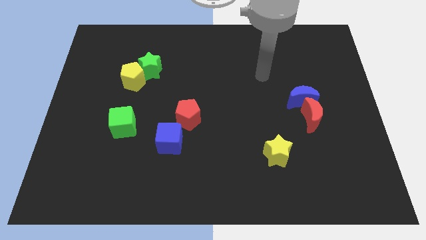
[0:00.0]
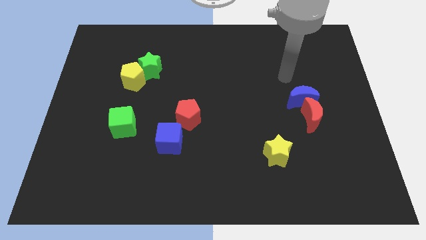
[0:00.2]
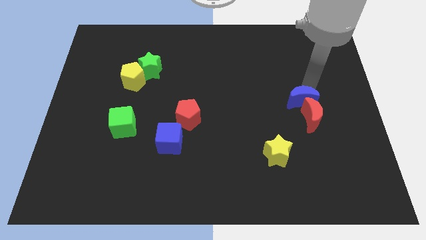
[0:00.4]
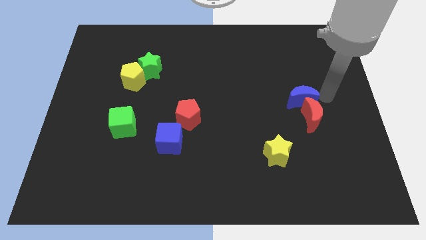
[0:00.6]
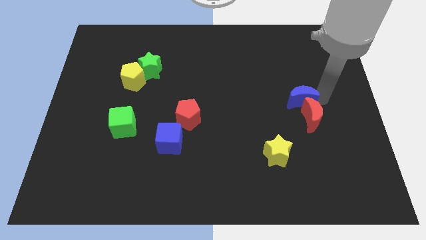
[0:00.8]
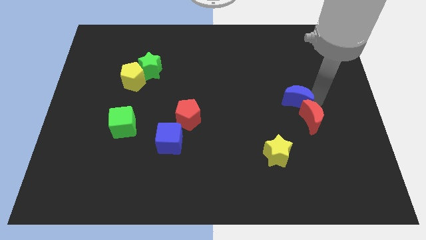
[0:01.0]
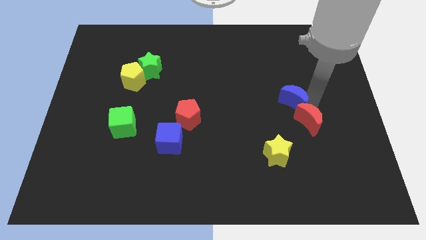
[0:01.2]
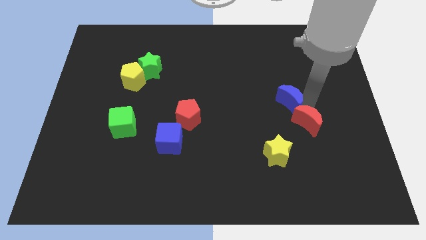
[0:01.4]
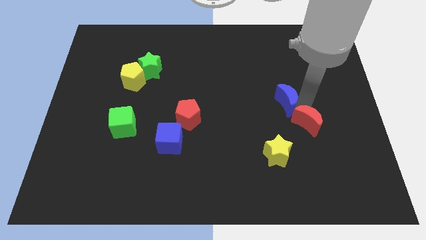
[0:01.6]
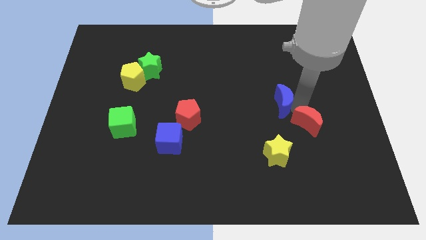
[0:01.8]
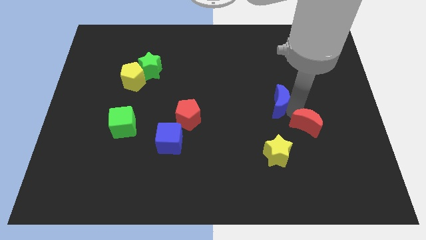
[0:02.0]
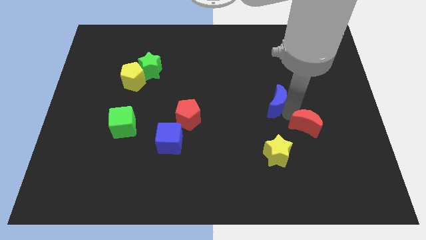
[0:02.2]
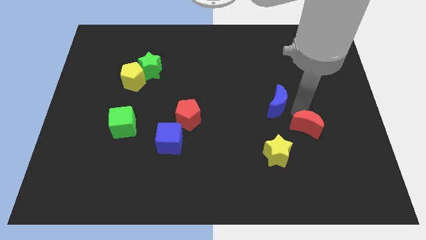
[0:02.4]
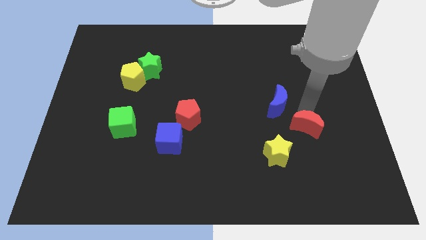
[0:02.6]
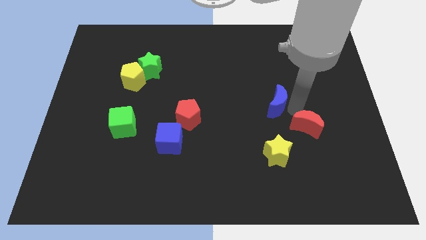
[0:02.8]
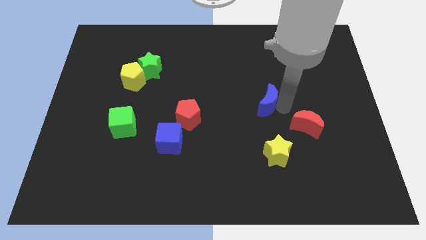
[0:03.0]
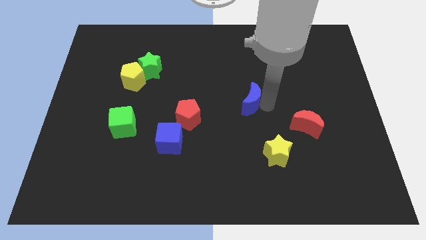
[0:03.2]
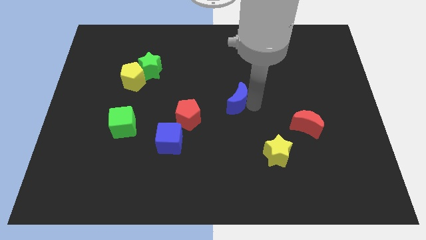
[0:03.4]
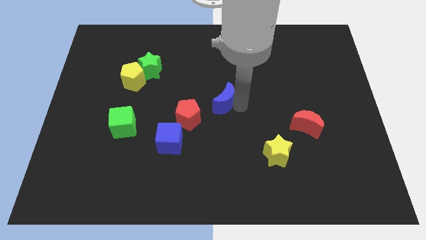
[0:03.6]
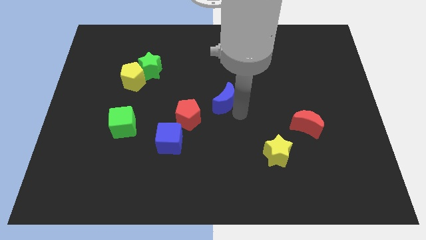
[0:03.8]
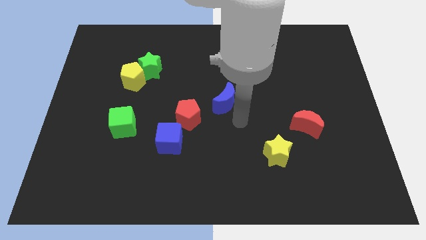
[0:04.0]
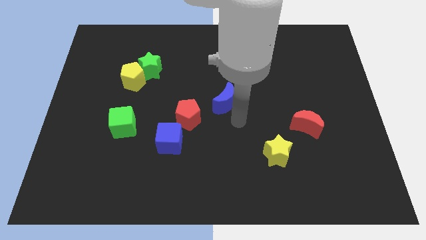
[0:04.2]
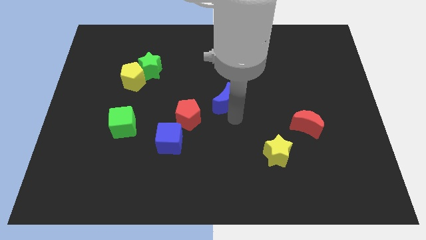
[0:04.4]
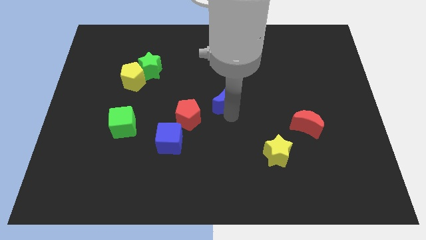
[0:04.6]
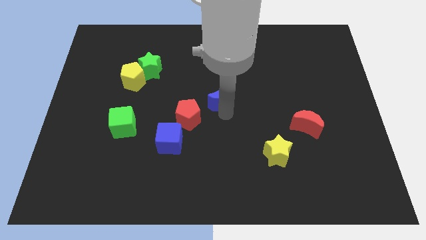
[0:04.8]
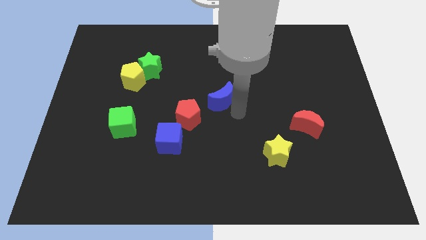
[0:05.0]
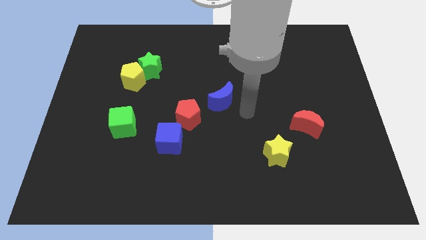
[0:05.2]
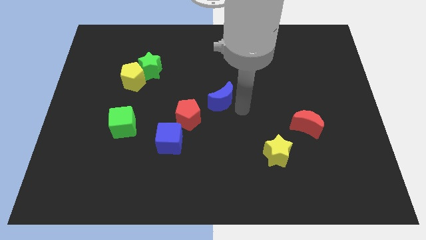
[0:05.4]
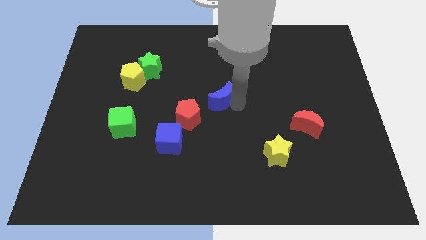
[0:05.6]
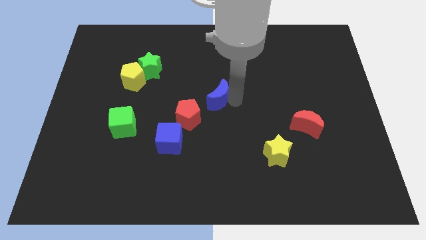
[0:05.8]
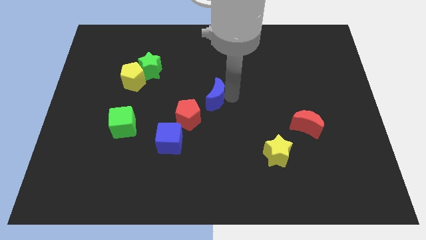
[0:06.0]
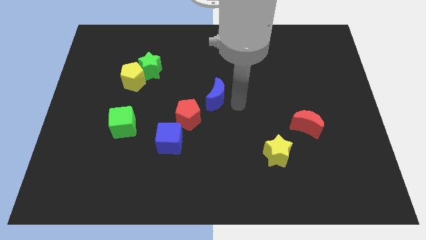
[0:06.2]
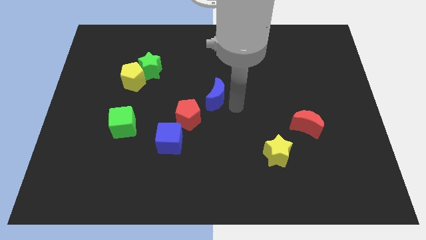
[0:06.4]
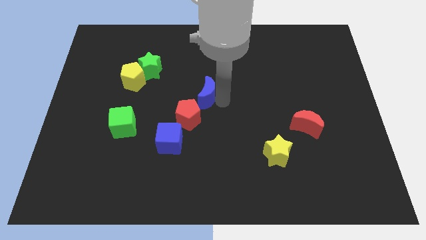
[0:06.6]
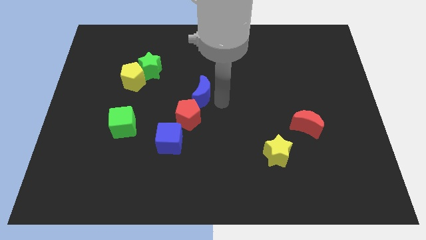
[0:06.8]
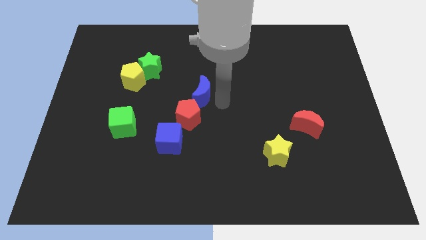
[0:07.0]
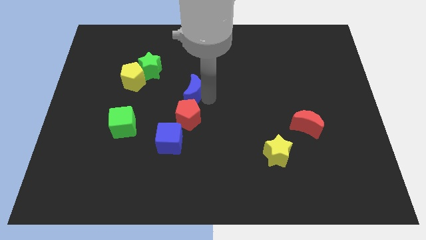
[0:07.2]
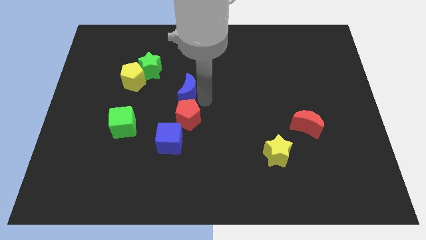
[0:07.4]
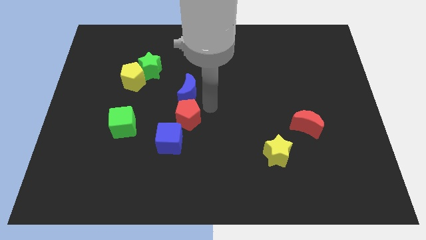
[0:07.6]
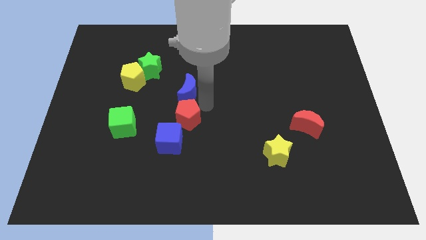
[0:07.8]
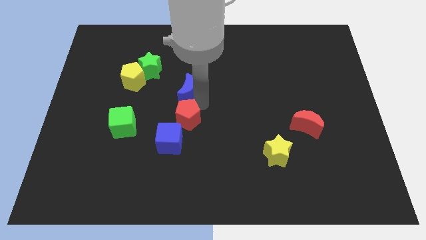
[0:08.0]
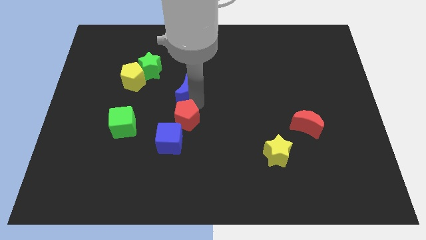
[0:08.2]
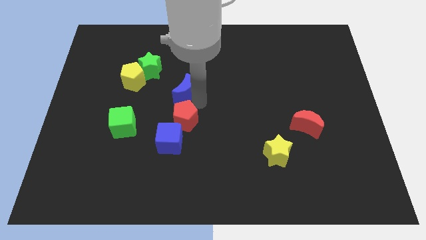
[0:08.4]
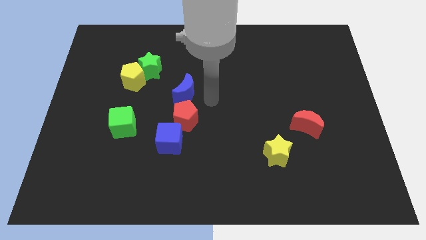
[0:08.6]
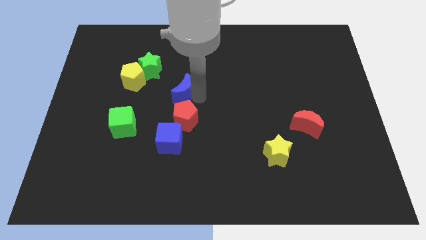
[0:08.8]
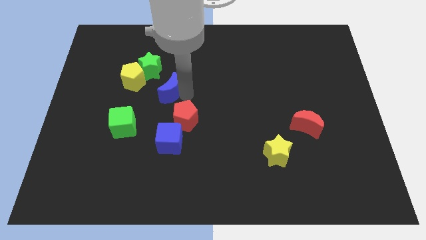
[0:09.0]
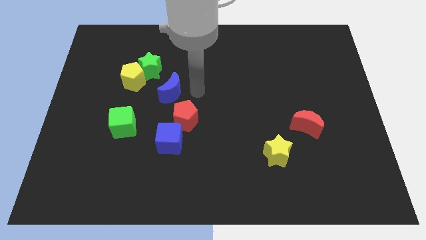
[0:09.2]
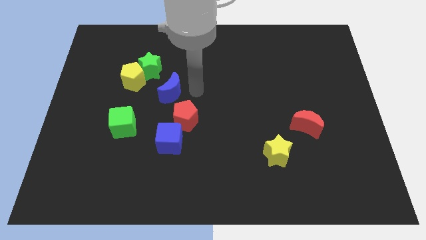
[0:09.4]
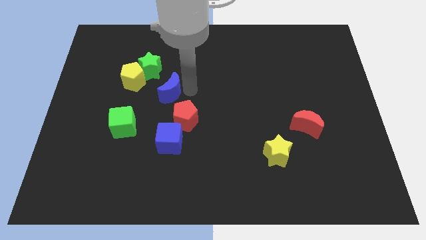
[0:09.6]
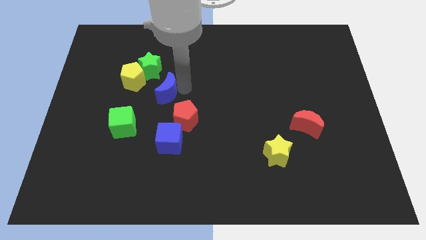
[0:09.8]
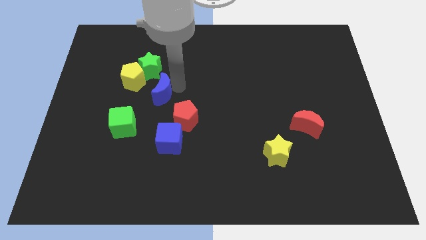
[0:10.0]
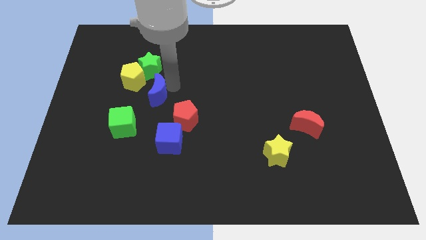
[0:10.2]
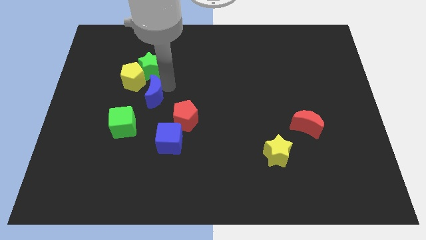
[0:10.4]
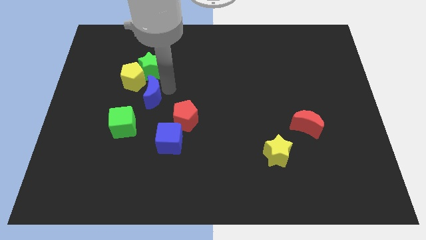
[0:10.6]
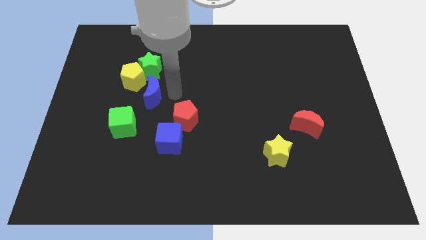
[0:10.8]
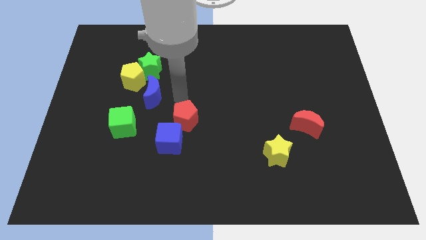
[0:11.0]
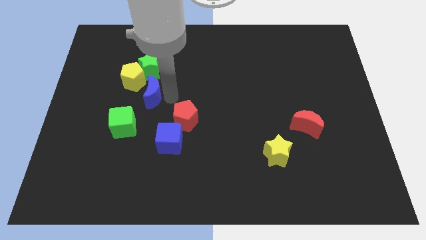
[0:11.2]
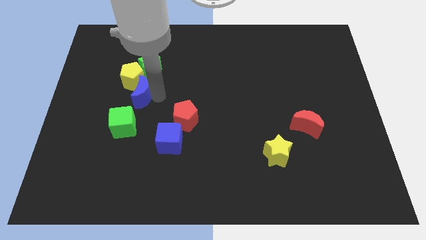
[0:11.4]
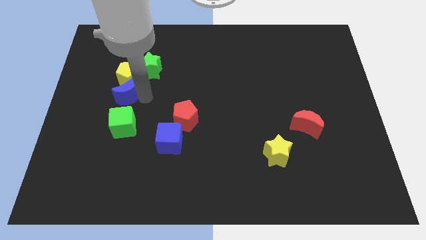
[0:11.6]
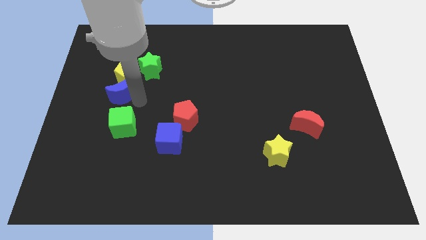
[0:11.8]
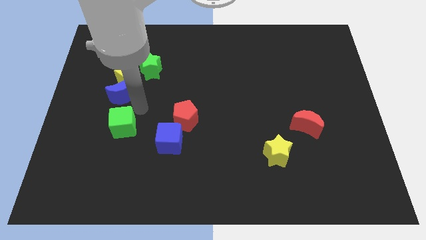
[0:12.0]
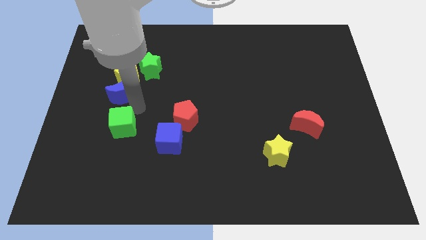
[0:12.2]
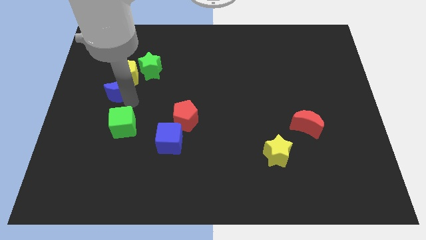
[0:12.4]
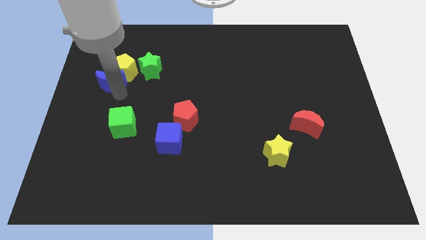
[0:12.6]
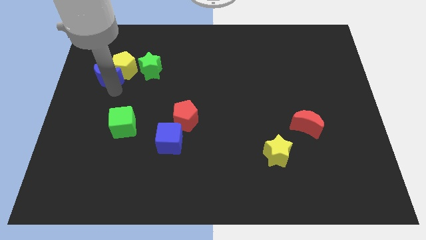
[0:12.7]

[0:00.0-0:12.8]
move the blue moon left of the green star
